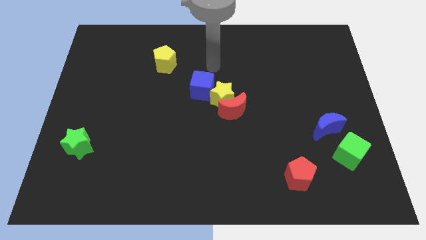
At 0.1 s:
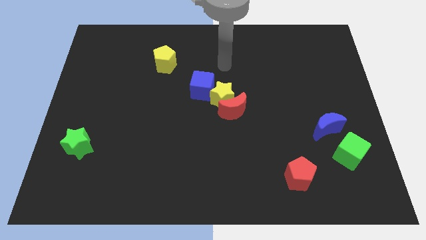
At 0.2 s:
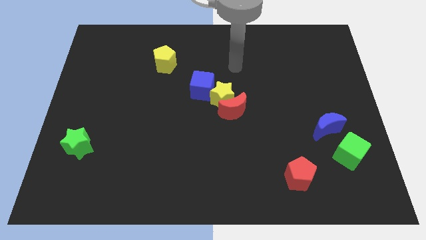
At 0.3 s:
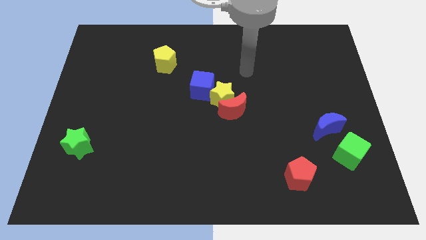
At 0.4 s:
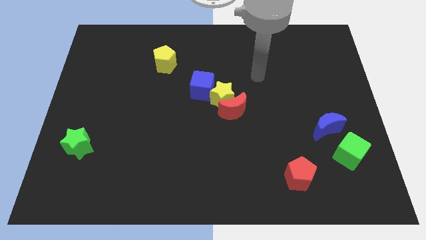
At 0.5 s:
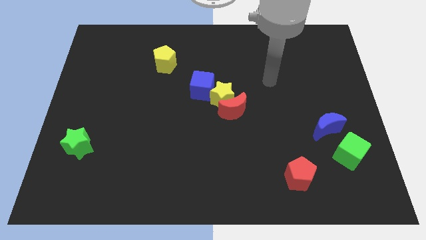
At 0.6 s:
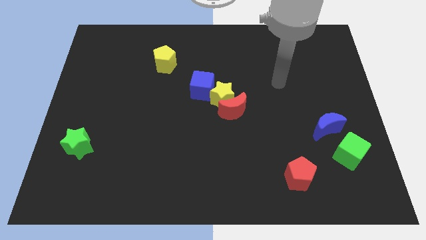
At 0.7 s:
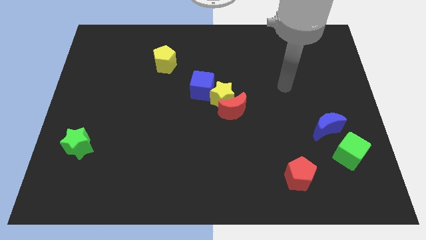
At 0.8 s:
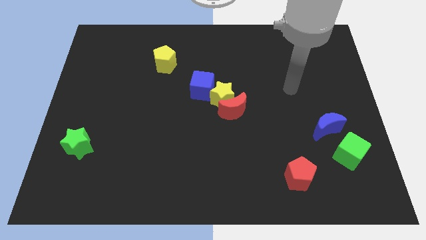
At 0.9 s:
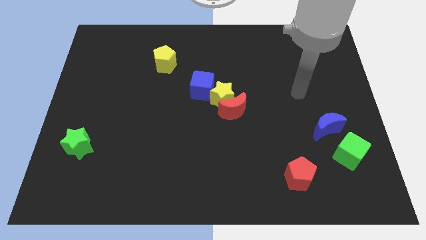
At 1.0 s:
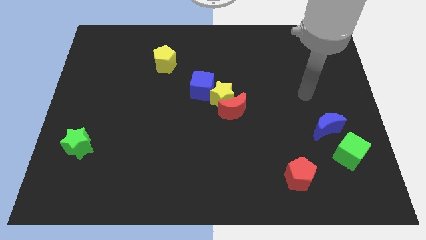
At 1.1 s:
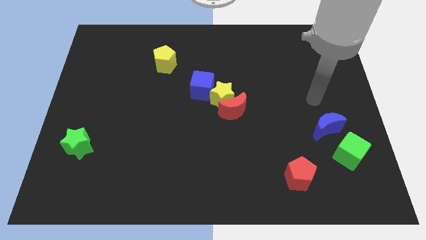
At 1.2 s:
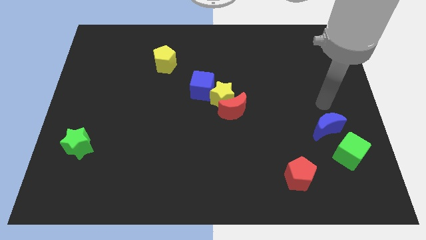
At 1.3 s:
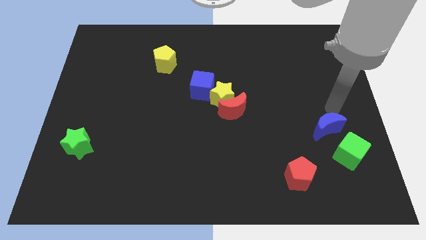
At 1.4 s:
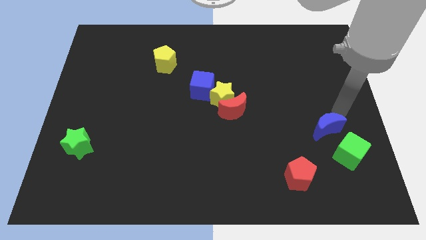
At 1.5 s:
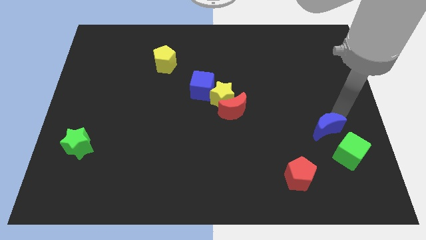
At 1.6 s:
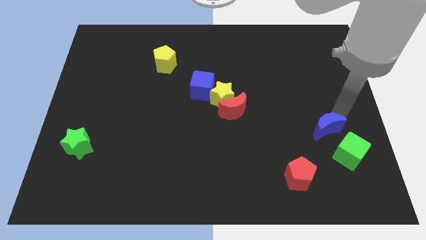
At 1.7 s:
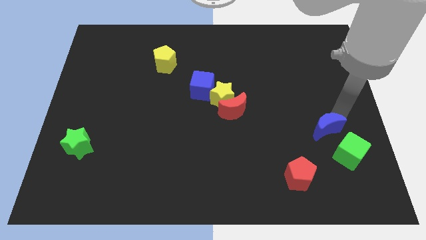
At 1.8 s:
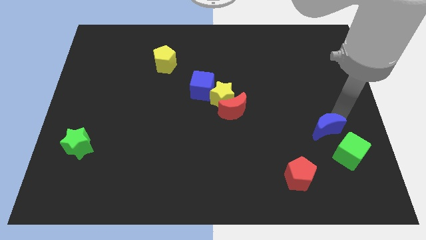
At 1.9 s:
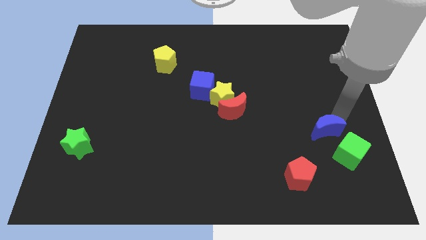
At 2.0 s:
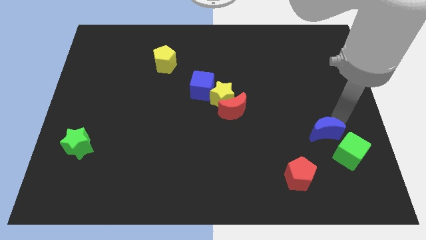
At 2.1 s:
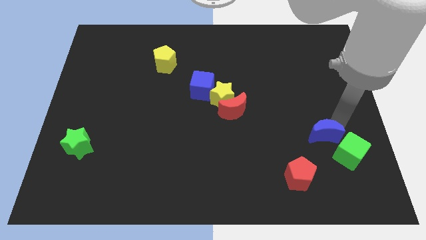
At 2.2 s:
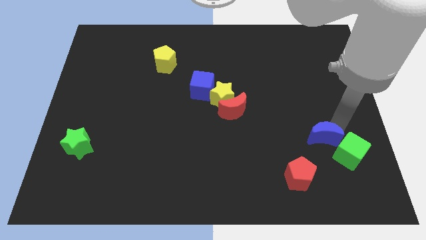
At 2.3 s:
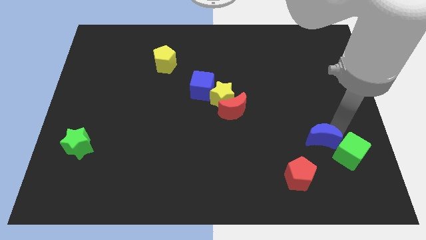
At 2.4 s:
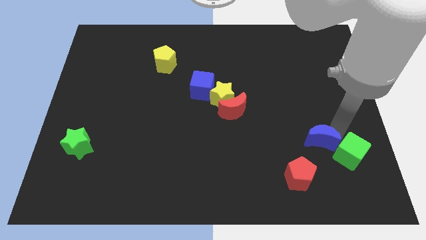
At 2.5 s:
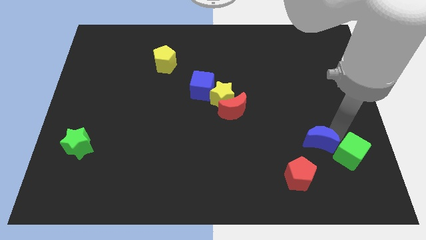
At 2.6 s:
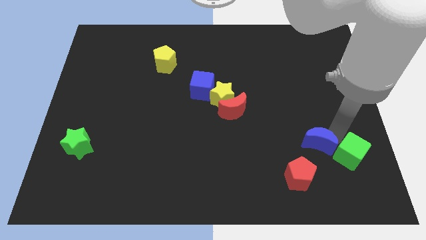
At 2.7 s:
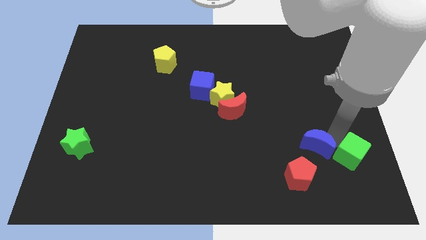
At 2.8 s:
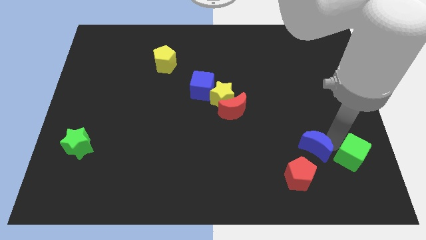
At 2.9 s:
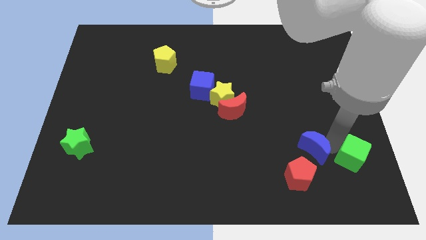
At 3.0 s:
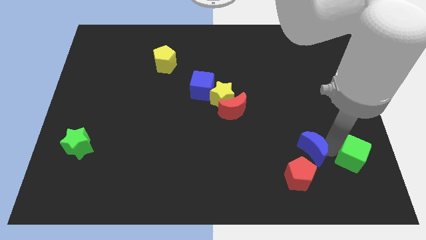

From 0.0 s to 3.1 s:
slightly push the blue moon downwards and to the left

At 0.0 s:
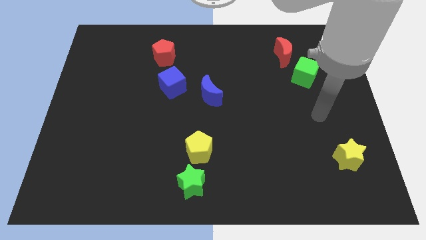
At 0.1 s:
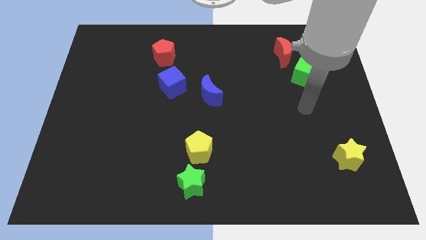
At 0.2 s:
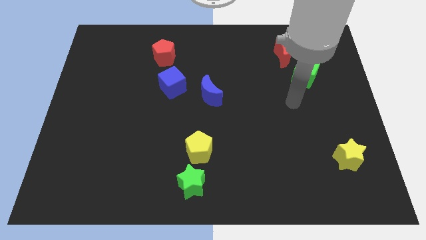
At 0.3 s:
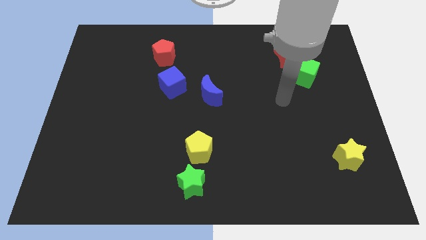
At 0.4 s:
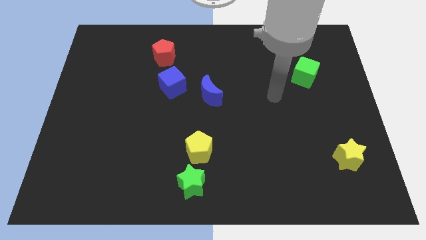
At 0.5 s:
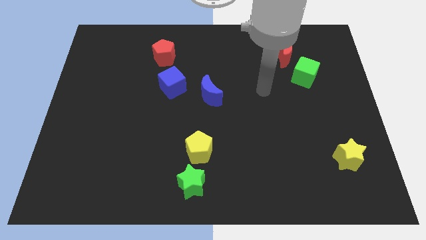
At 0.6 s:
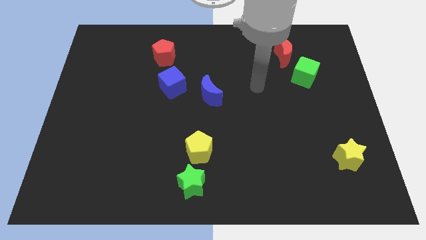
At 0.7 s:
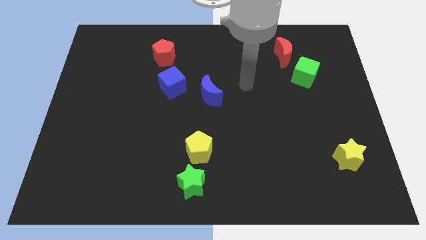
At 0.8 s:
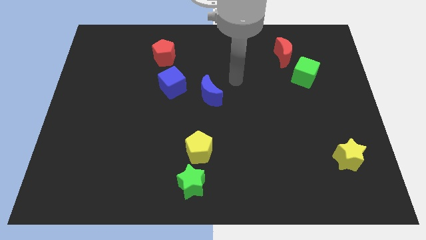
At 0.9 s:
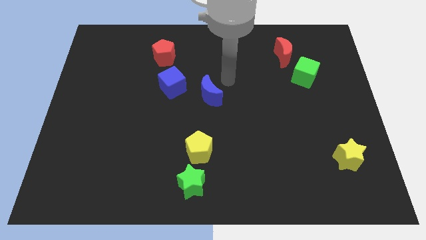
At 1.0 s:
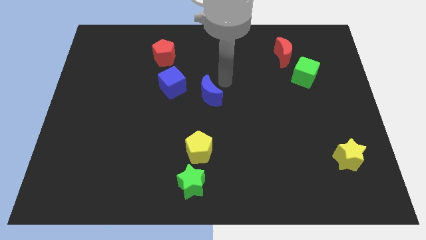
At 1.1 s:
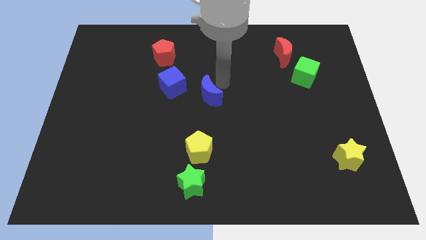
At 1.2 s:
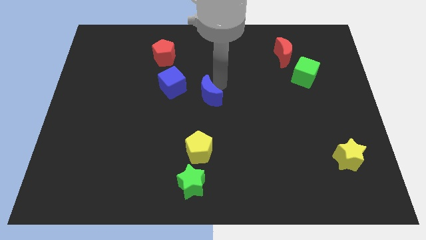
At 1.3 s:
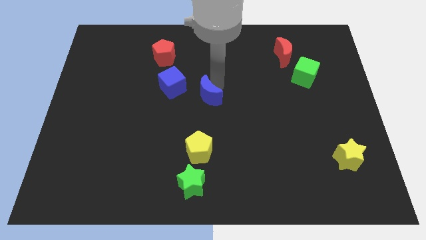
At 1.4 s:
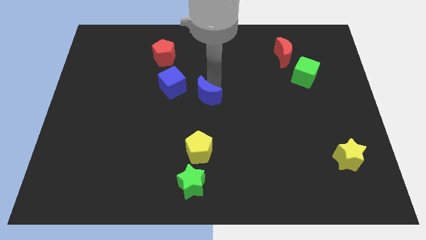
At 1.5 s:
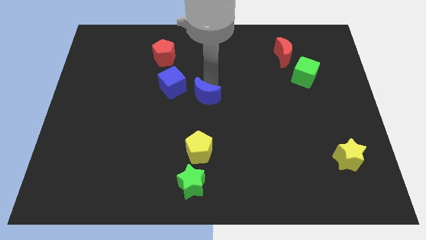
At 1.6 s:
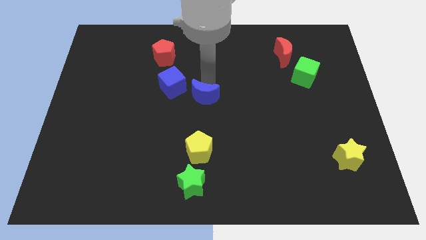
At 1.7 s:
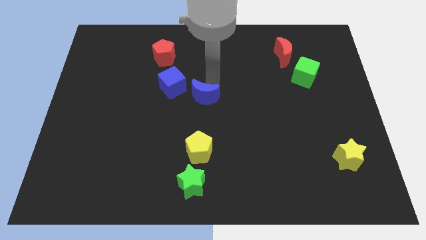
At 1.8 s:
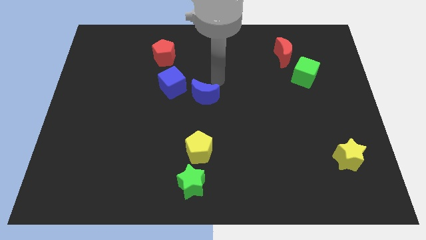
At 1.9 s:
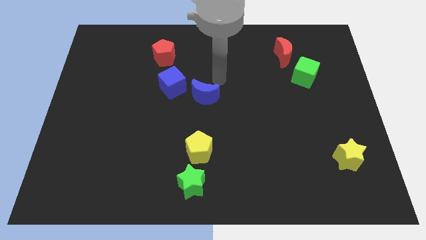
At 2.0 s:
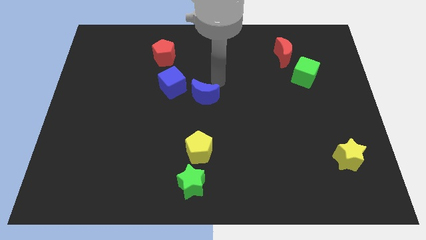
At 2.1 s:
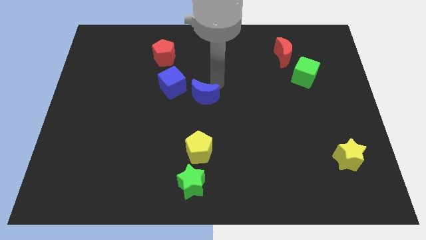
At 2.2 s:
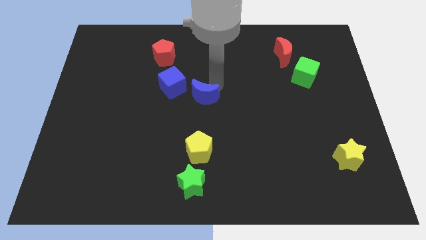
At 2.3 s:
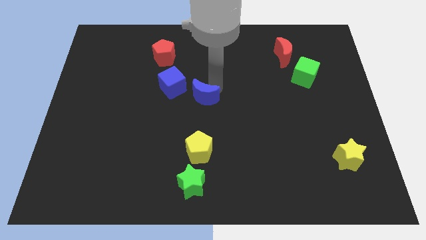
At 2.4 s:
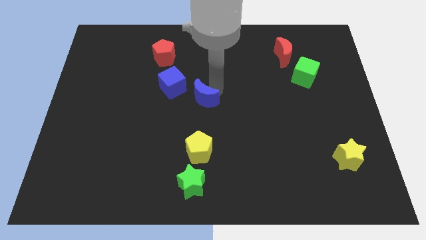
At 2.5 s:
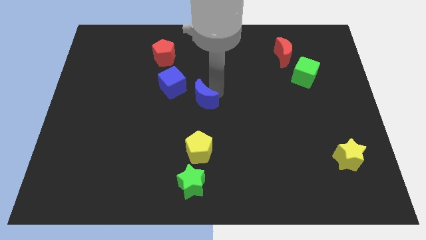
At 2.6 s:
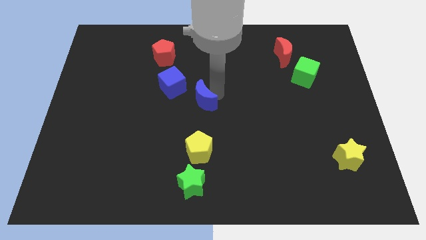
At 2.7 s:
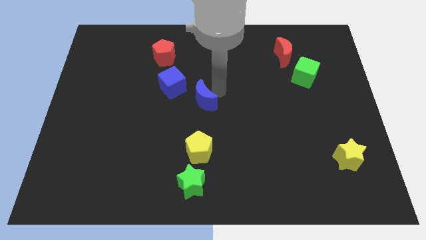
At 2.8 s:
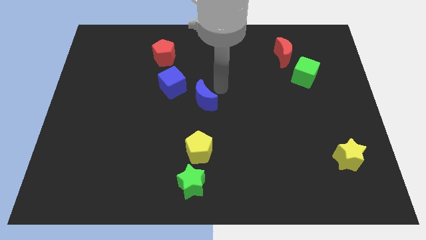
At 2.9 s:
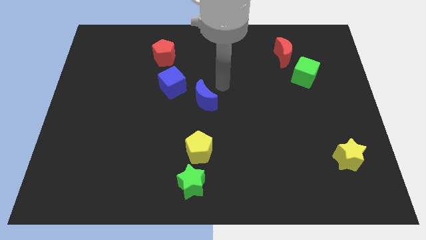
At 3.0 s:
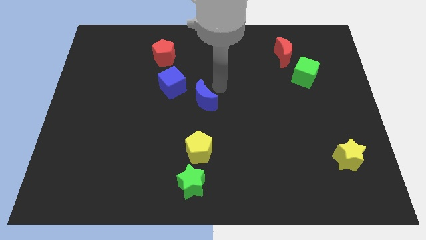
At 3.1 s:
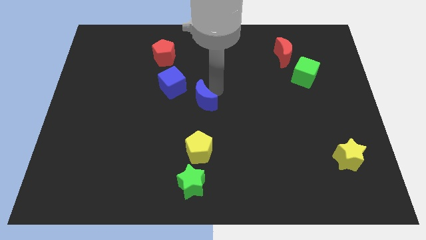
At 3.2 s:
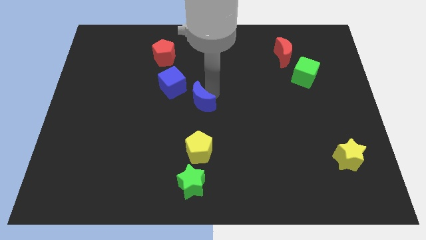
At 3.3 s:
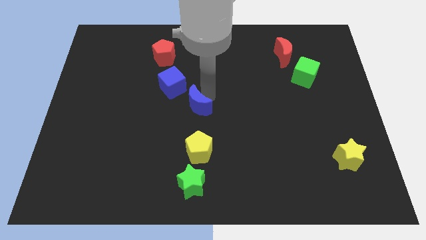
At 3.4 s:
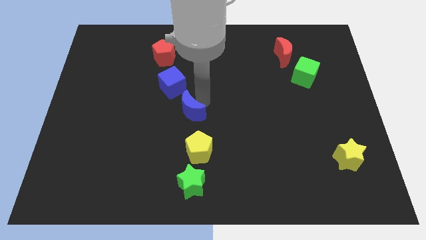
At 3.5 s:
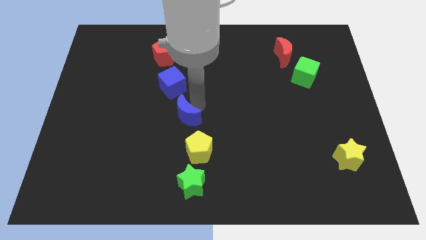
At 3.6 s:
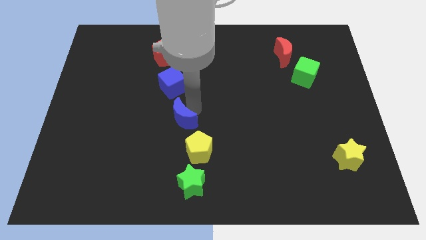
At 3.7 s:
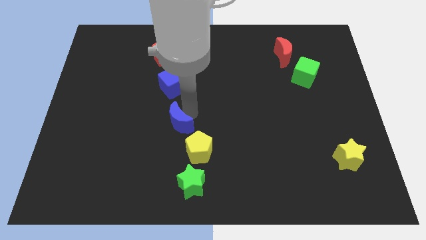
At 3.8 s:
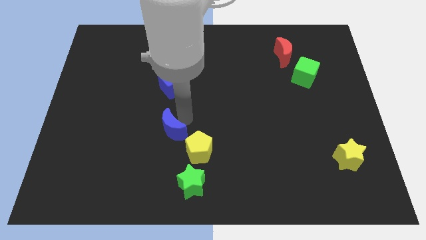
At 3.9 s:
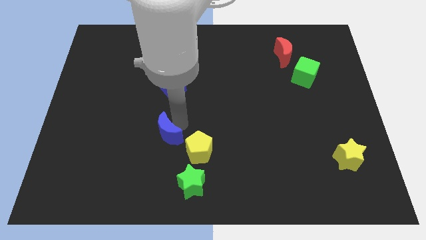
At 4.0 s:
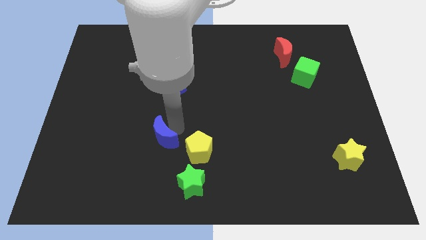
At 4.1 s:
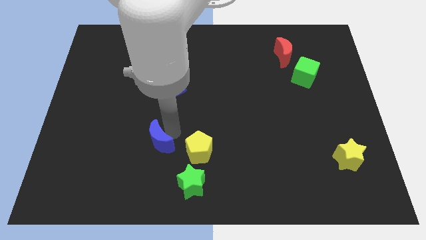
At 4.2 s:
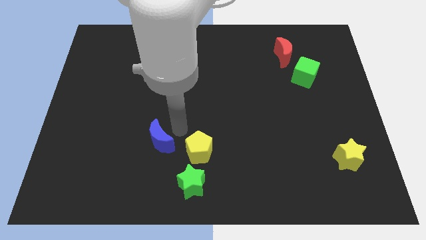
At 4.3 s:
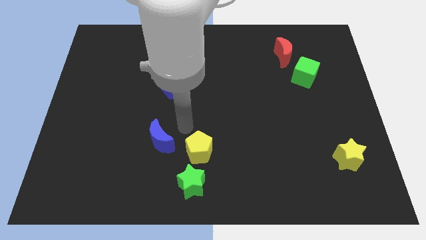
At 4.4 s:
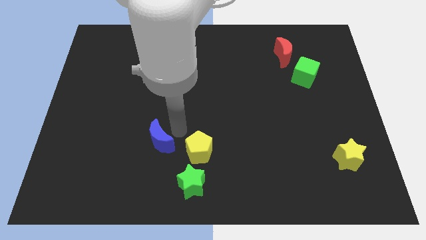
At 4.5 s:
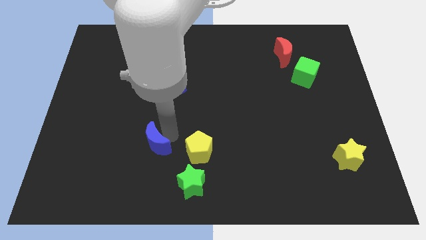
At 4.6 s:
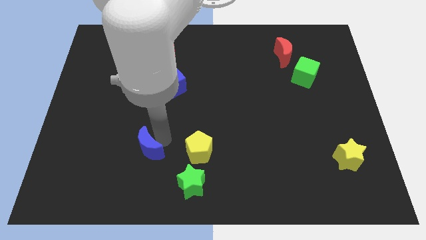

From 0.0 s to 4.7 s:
slide the blue moon downwards and left

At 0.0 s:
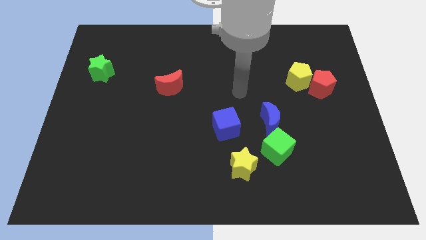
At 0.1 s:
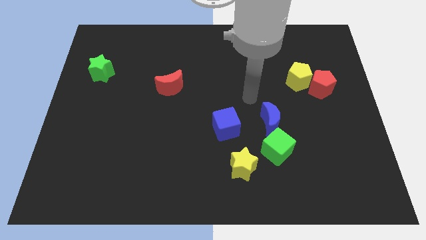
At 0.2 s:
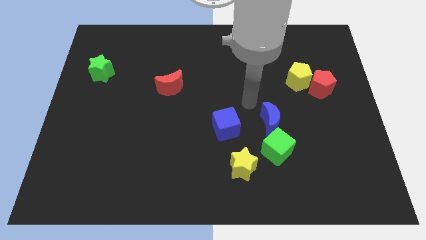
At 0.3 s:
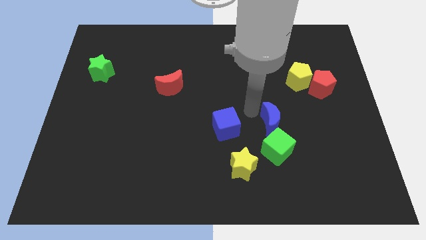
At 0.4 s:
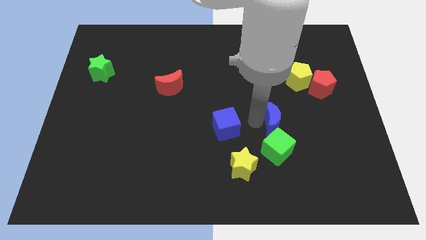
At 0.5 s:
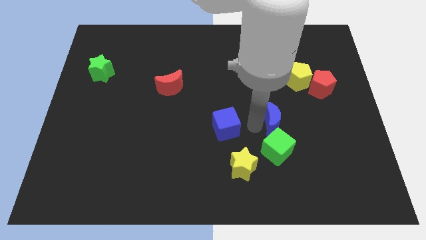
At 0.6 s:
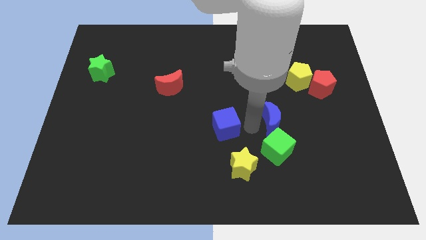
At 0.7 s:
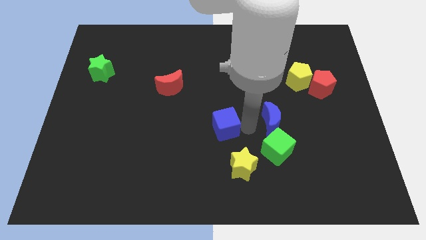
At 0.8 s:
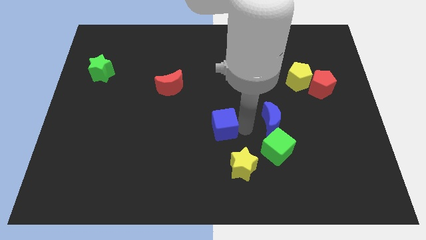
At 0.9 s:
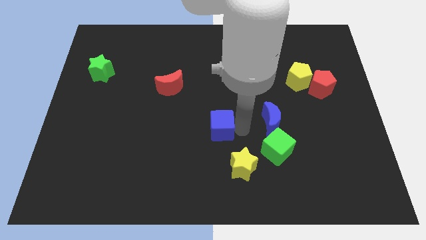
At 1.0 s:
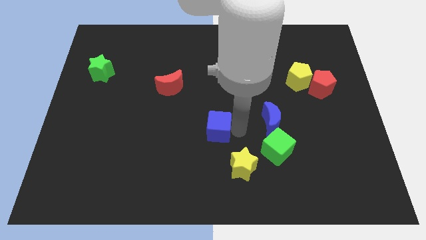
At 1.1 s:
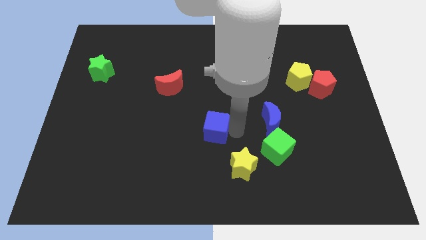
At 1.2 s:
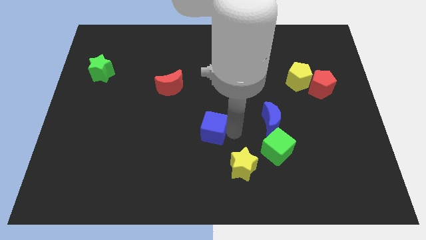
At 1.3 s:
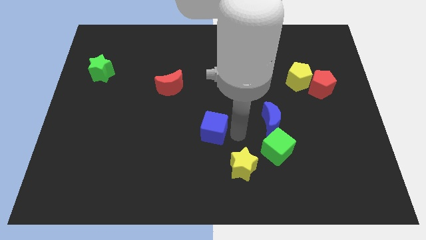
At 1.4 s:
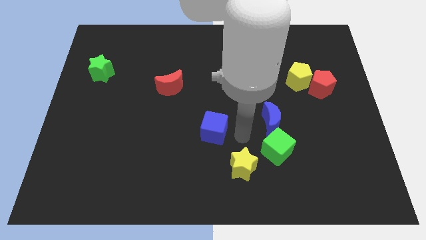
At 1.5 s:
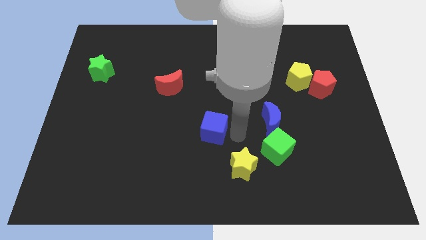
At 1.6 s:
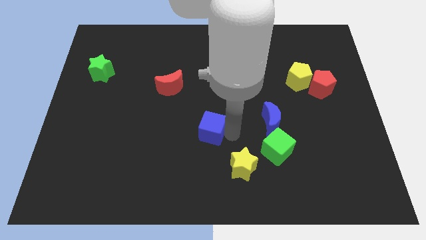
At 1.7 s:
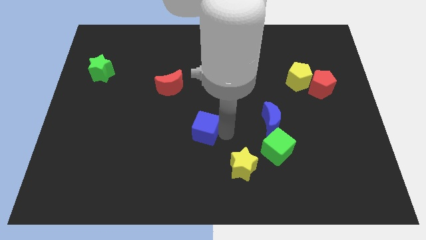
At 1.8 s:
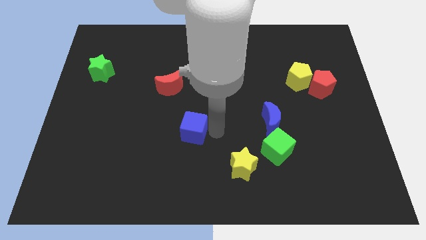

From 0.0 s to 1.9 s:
push the blue cube to the left a bit
